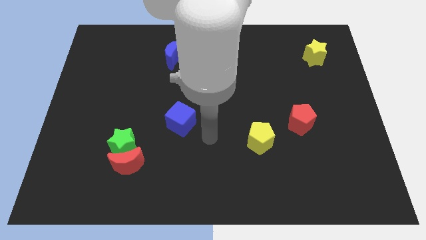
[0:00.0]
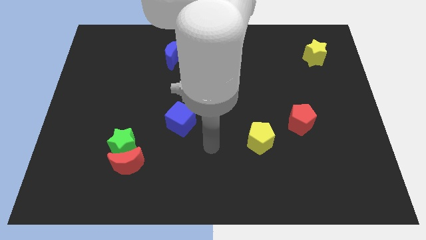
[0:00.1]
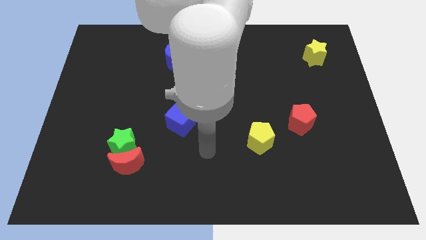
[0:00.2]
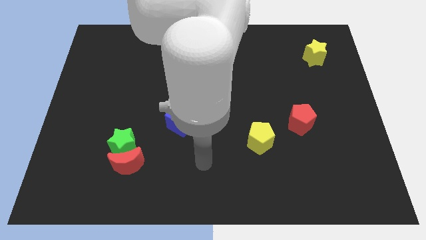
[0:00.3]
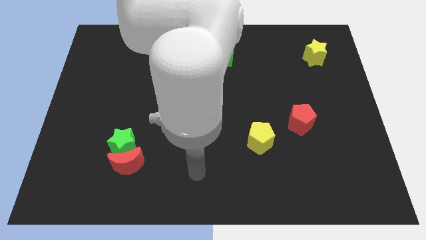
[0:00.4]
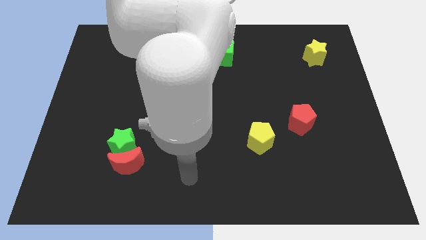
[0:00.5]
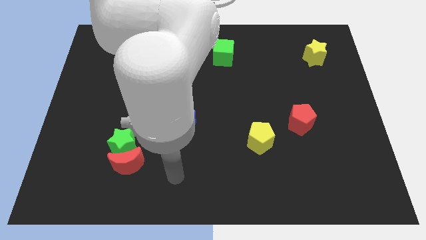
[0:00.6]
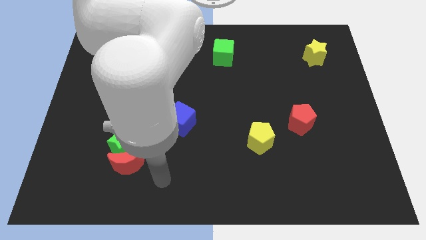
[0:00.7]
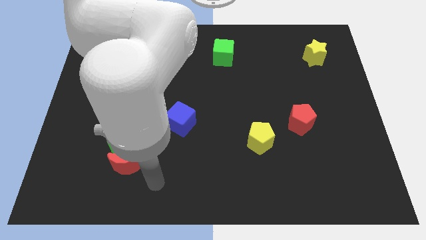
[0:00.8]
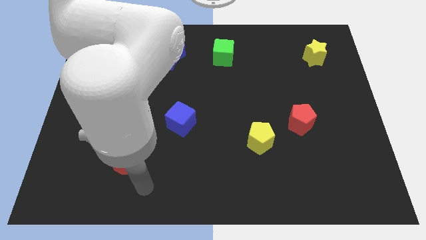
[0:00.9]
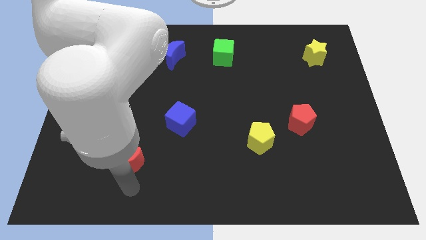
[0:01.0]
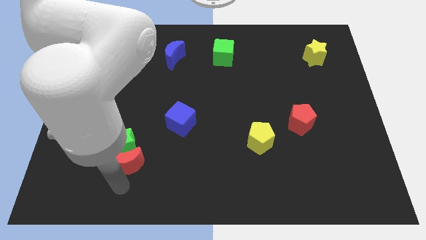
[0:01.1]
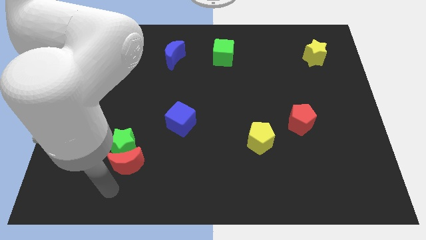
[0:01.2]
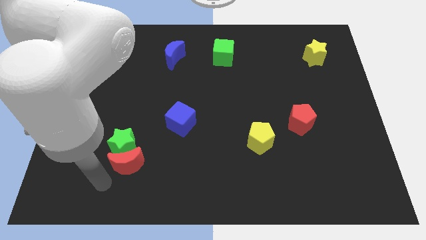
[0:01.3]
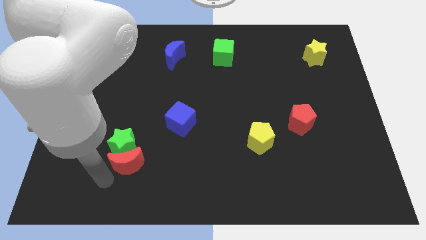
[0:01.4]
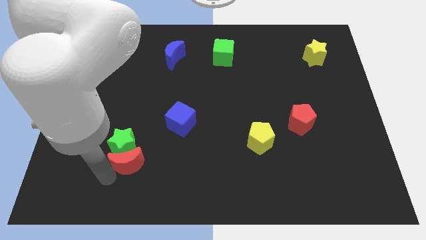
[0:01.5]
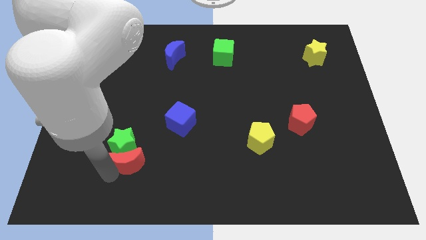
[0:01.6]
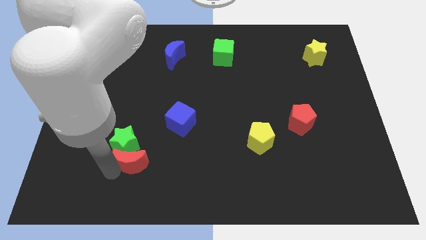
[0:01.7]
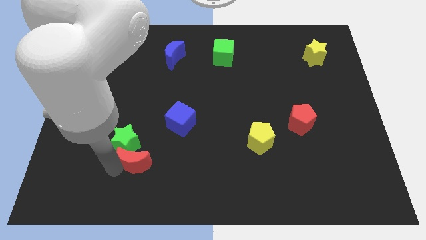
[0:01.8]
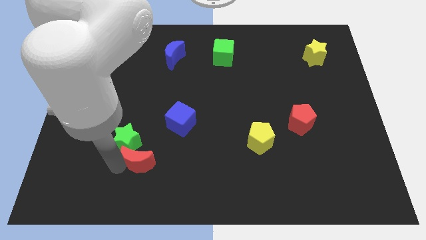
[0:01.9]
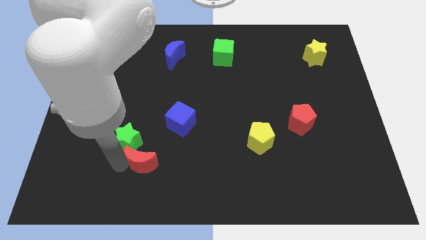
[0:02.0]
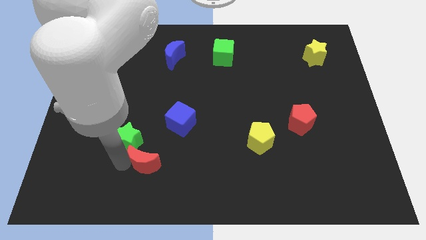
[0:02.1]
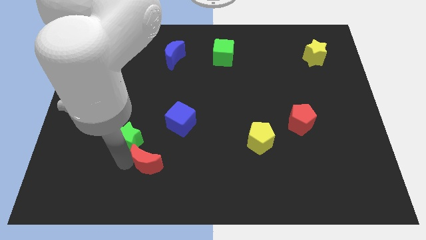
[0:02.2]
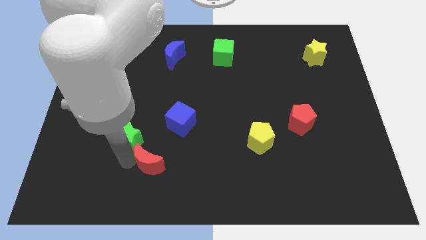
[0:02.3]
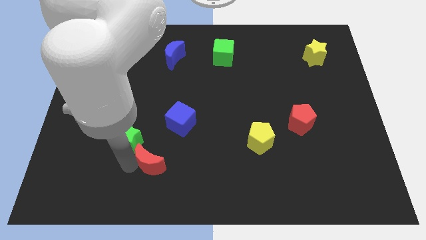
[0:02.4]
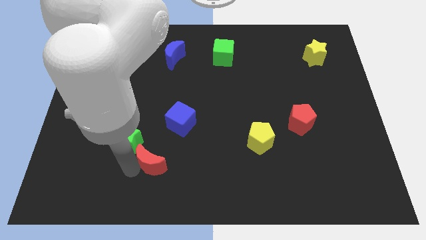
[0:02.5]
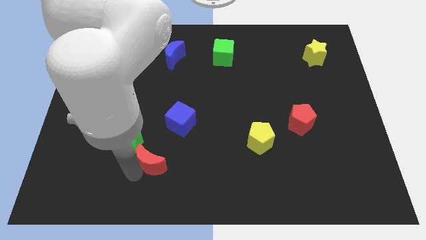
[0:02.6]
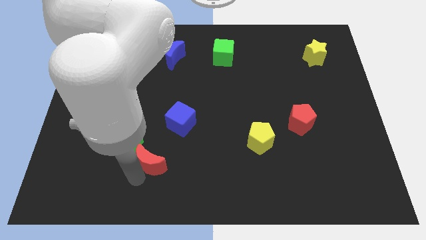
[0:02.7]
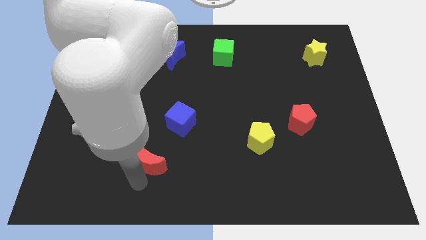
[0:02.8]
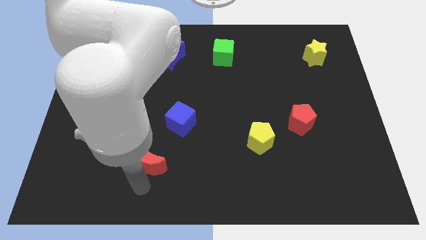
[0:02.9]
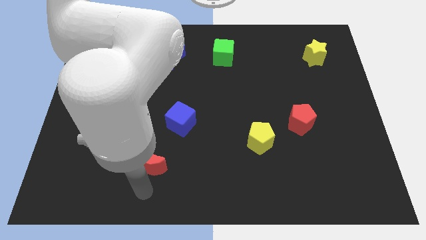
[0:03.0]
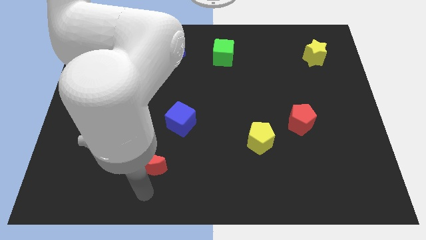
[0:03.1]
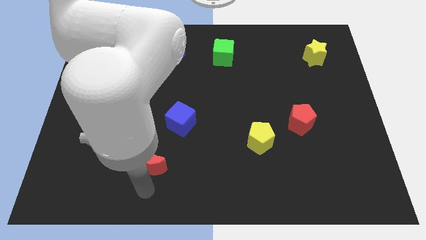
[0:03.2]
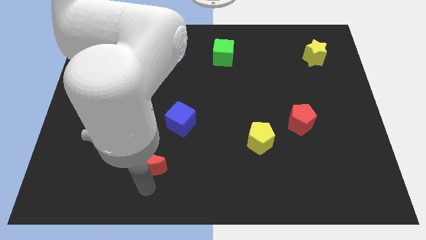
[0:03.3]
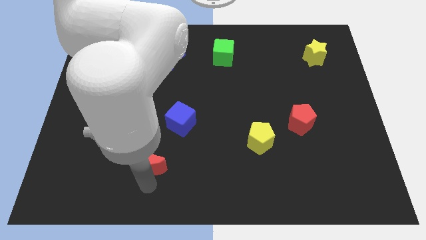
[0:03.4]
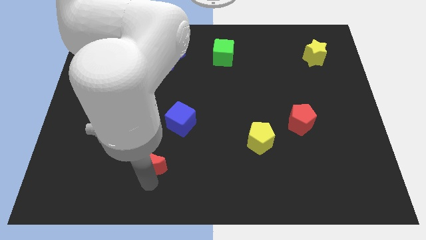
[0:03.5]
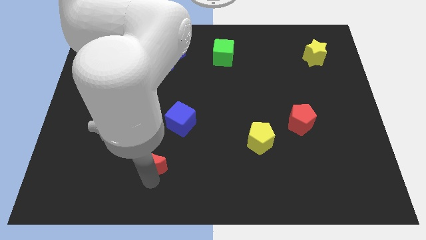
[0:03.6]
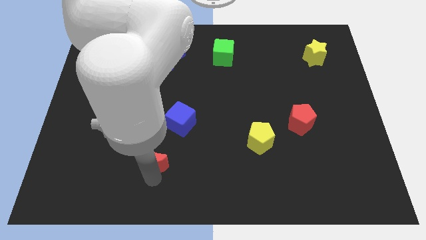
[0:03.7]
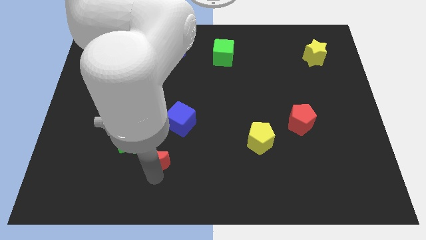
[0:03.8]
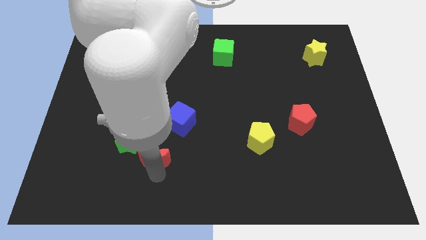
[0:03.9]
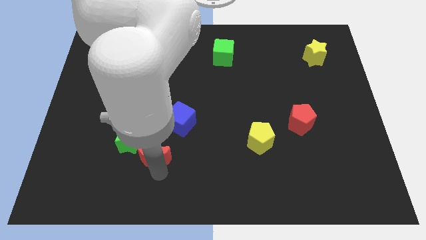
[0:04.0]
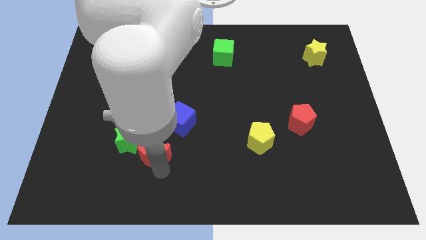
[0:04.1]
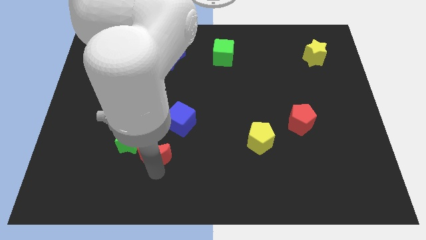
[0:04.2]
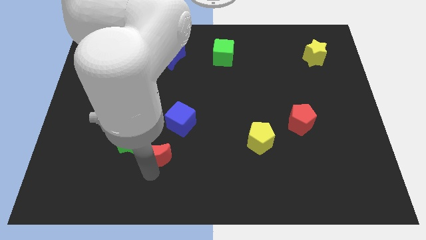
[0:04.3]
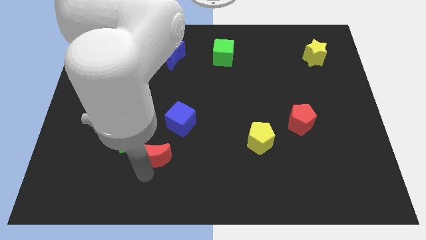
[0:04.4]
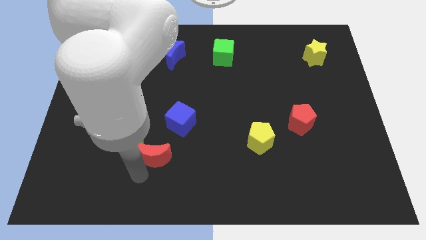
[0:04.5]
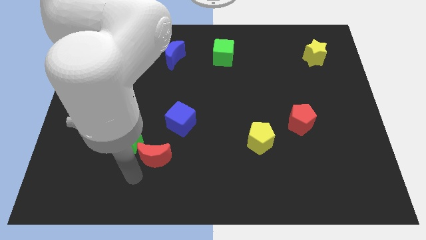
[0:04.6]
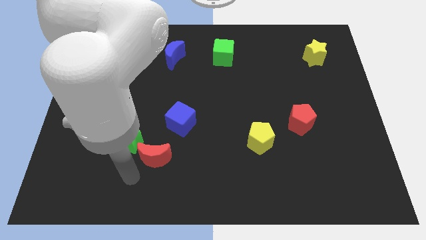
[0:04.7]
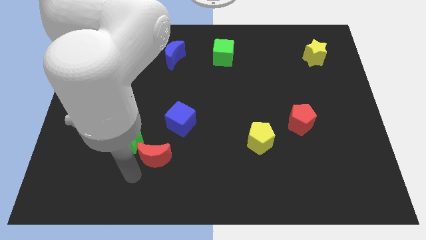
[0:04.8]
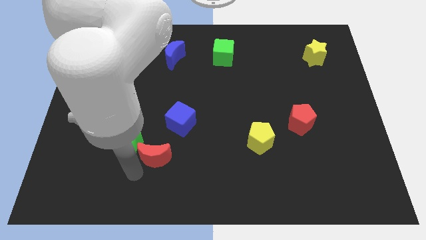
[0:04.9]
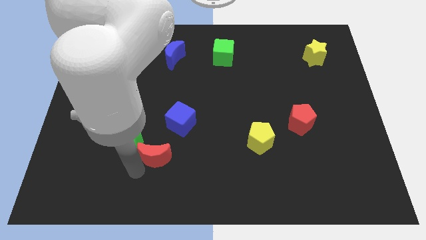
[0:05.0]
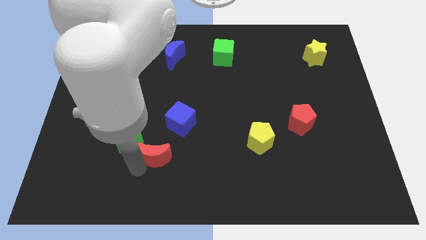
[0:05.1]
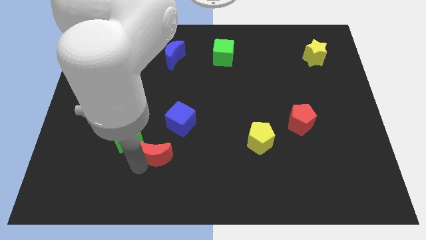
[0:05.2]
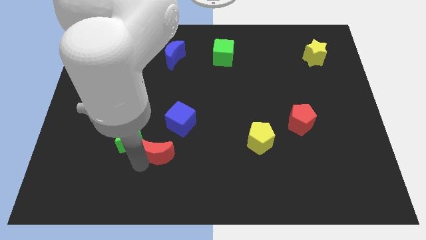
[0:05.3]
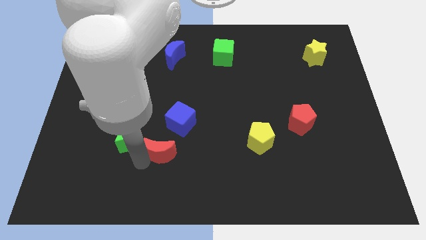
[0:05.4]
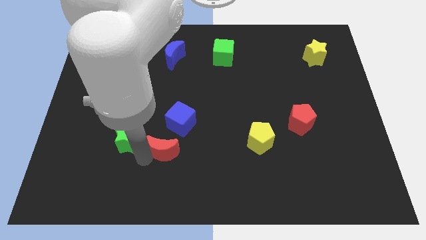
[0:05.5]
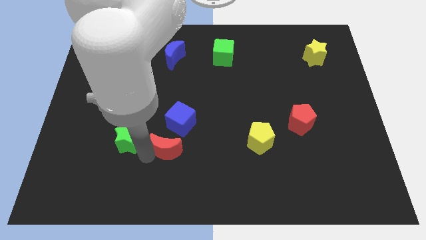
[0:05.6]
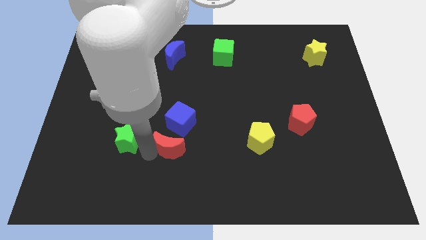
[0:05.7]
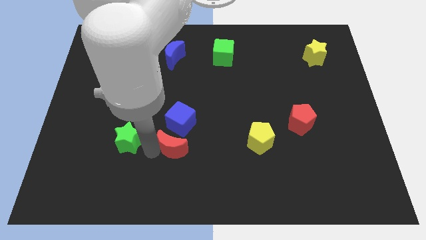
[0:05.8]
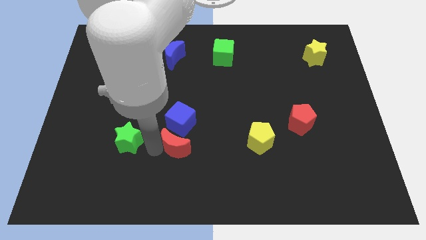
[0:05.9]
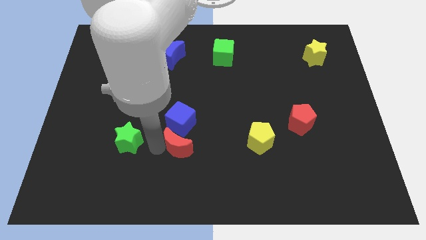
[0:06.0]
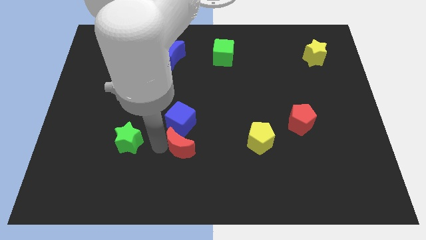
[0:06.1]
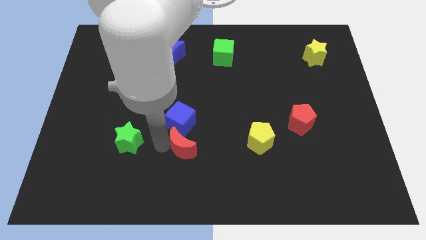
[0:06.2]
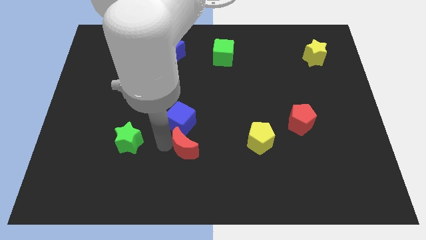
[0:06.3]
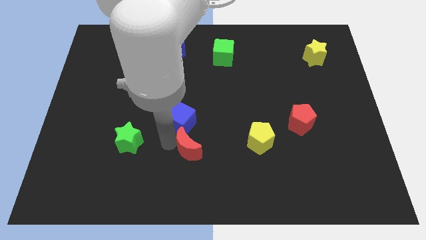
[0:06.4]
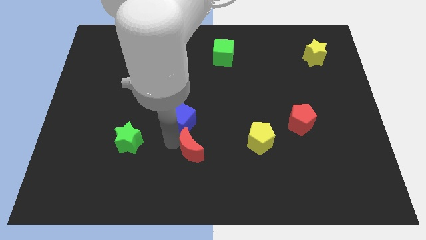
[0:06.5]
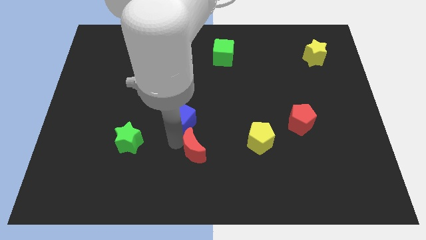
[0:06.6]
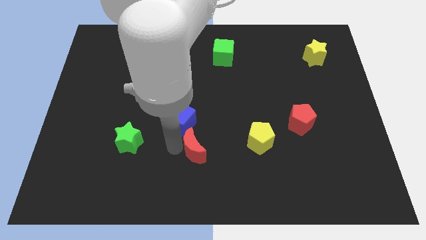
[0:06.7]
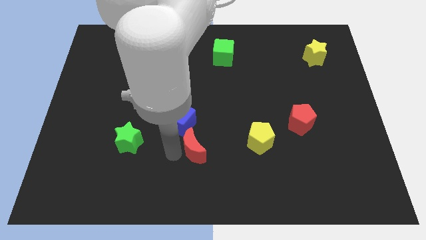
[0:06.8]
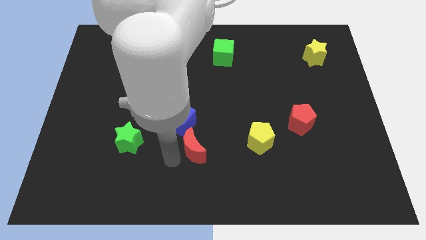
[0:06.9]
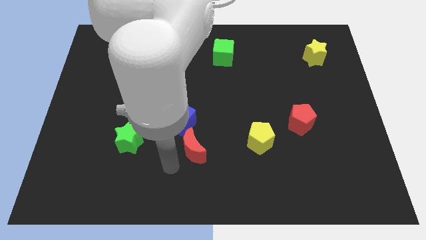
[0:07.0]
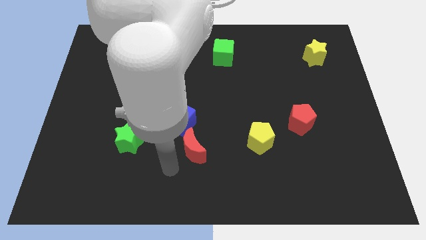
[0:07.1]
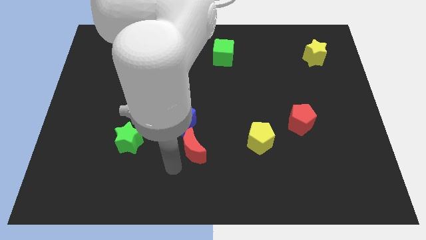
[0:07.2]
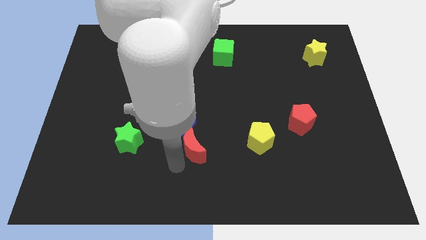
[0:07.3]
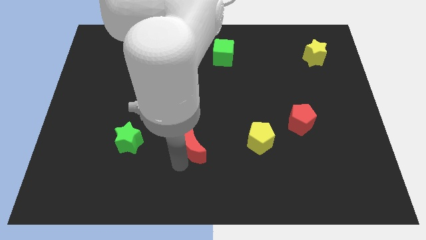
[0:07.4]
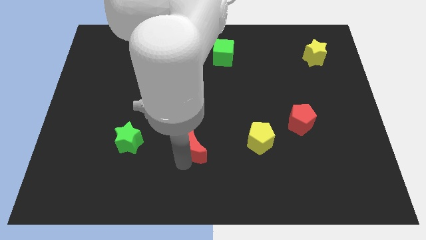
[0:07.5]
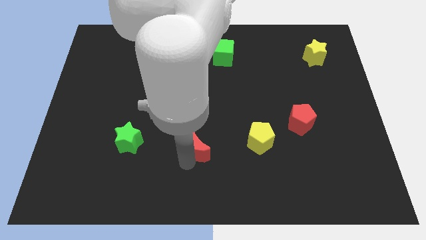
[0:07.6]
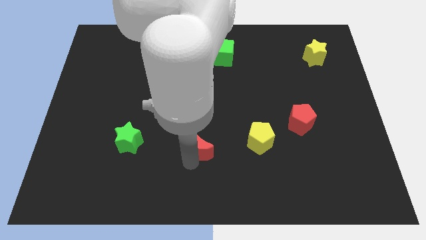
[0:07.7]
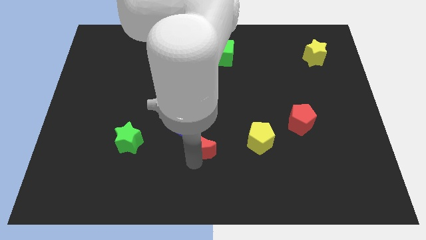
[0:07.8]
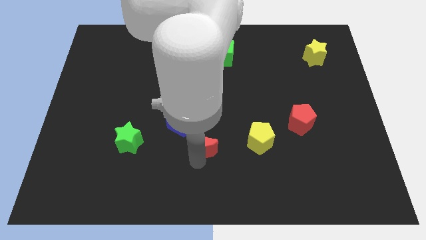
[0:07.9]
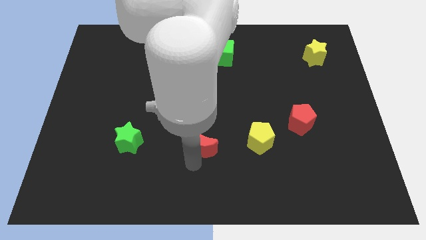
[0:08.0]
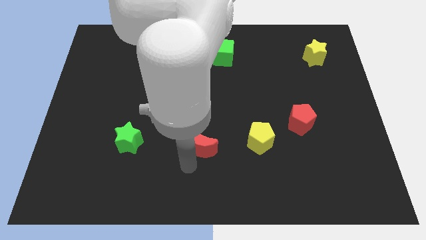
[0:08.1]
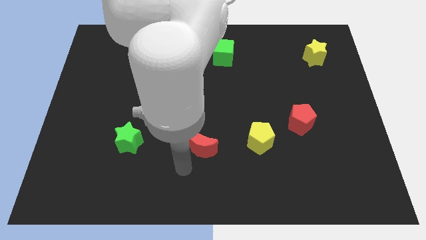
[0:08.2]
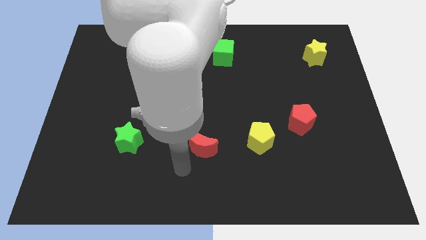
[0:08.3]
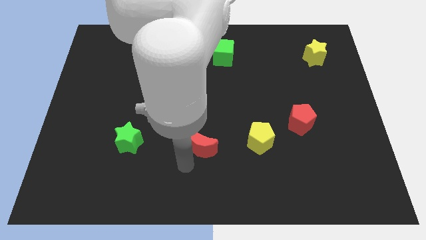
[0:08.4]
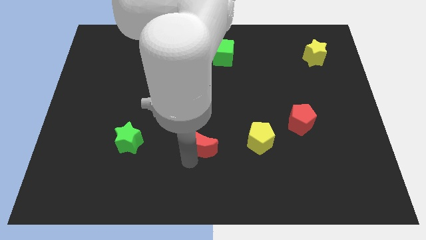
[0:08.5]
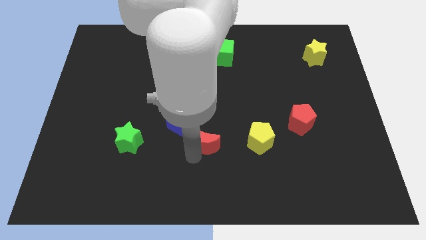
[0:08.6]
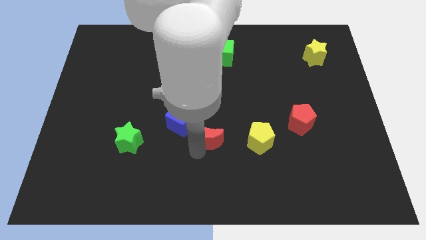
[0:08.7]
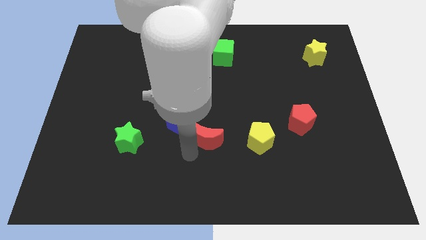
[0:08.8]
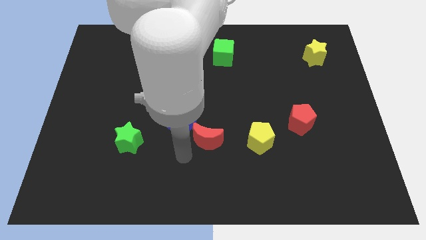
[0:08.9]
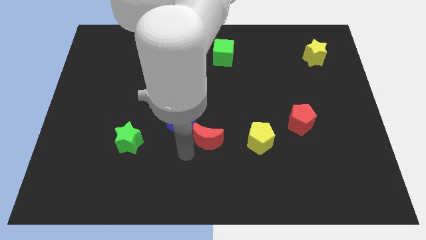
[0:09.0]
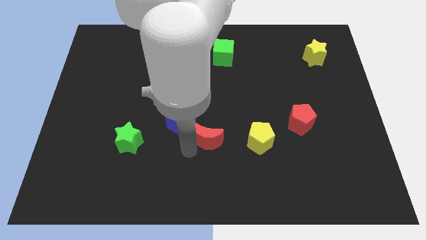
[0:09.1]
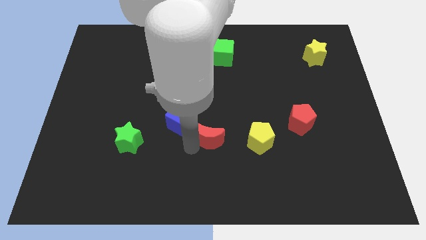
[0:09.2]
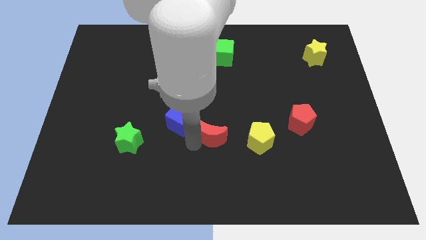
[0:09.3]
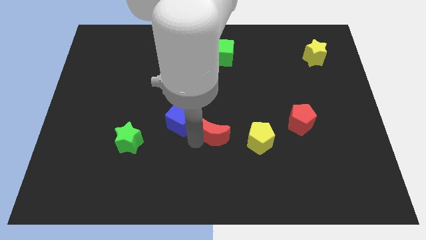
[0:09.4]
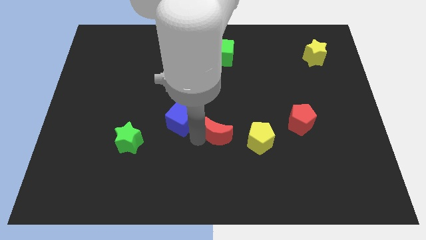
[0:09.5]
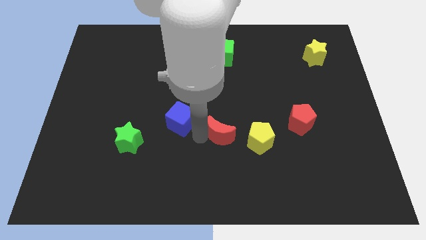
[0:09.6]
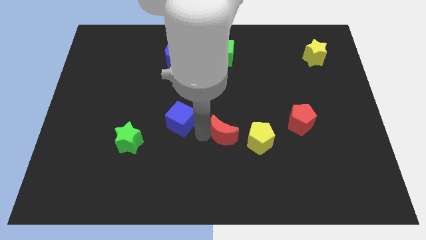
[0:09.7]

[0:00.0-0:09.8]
move the red moon to the top left side of the yellow pentagon
